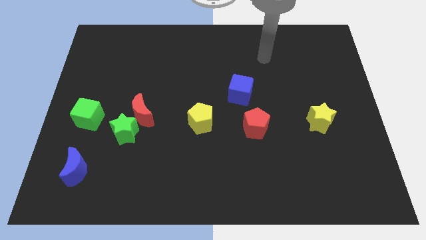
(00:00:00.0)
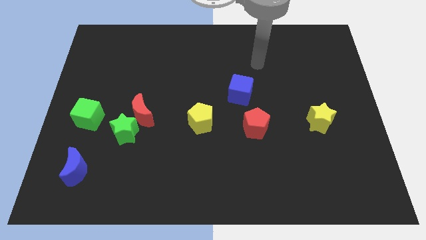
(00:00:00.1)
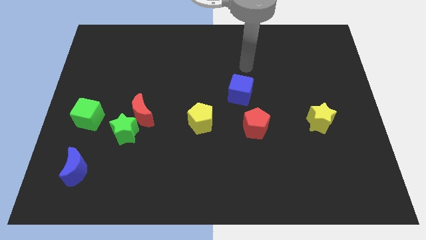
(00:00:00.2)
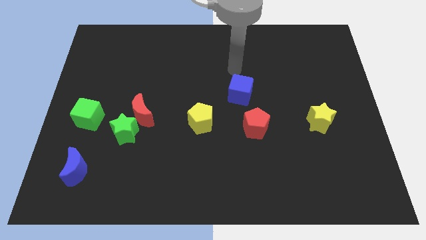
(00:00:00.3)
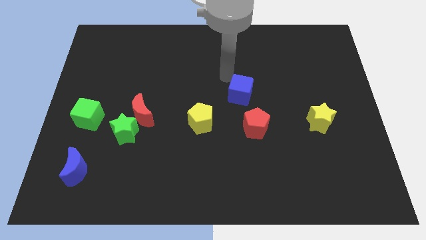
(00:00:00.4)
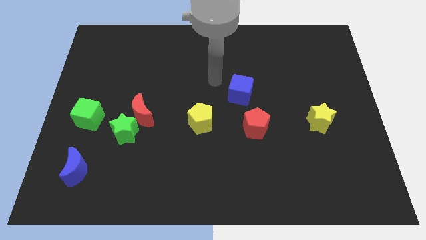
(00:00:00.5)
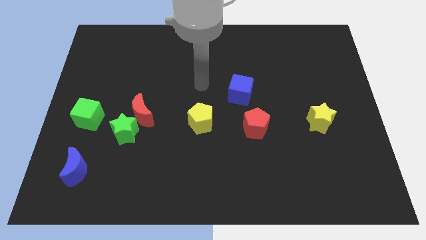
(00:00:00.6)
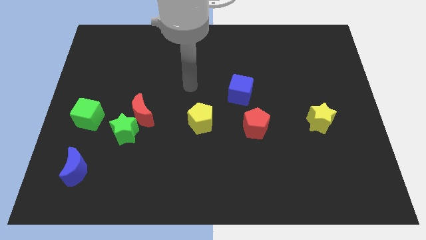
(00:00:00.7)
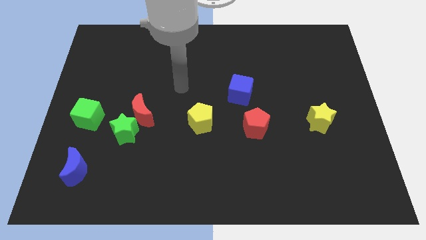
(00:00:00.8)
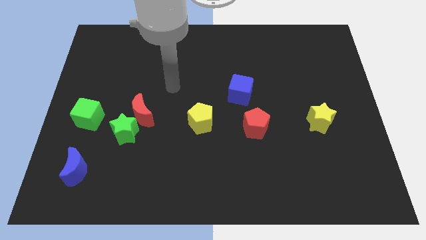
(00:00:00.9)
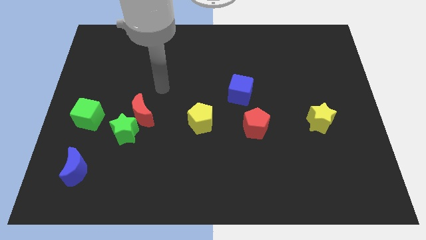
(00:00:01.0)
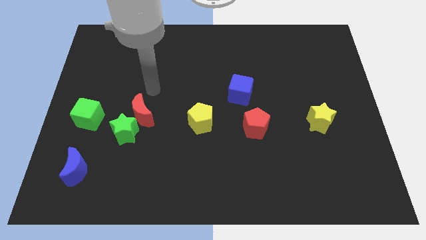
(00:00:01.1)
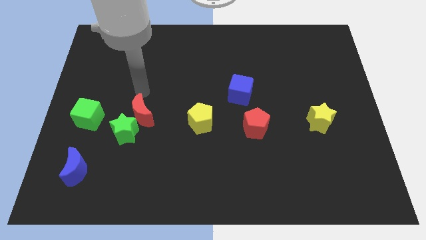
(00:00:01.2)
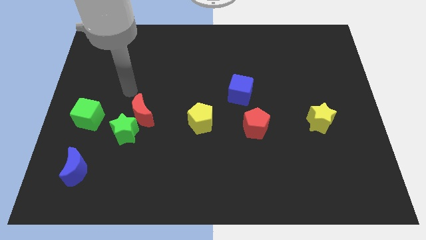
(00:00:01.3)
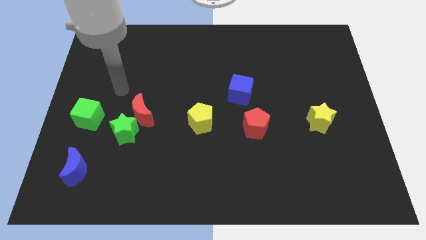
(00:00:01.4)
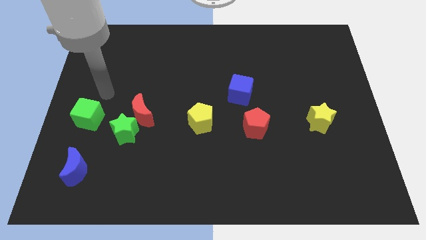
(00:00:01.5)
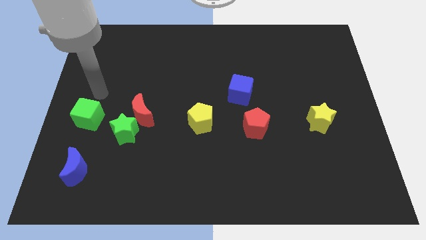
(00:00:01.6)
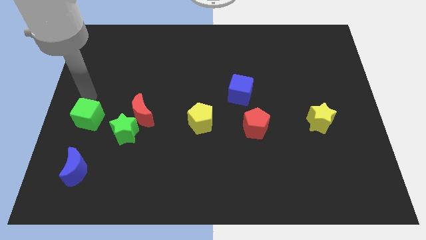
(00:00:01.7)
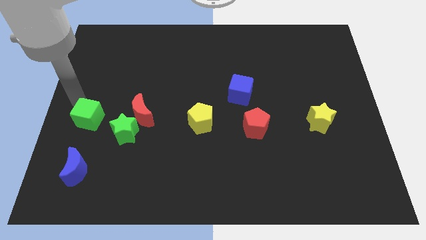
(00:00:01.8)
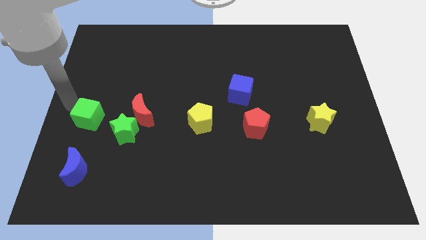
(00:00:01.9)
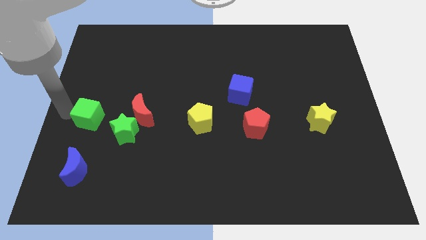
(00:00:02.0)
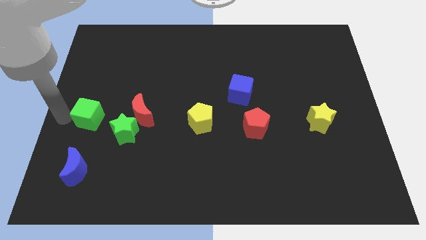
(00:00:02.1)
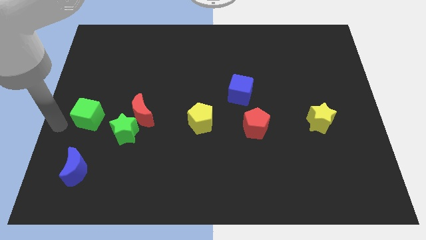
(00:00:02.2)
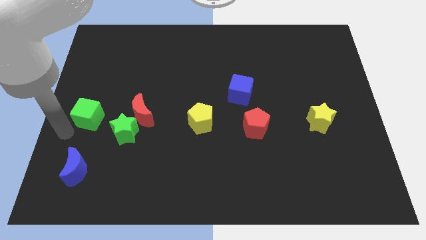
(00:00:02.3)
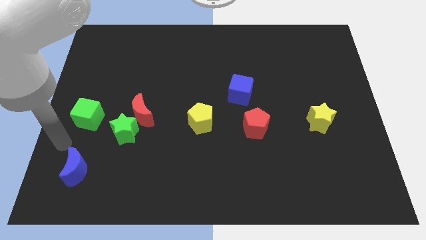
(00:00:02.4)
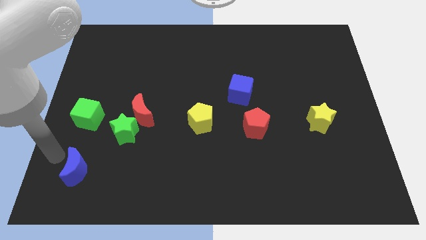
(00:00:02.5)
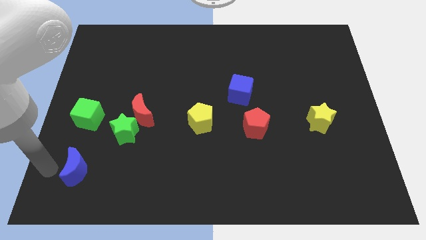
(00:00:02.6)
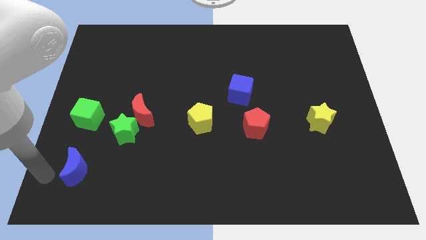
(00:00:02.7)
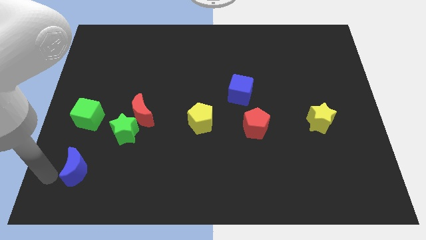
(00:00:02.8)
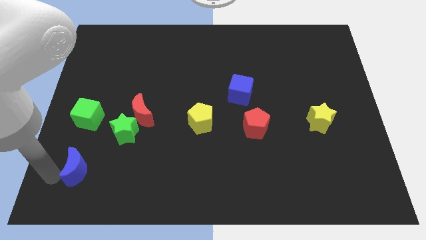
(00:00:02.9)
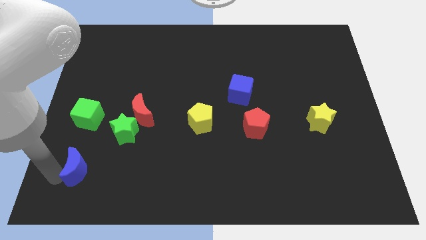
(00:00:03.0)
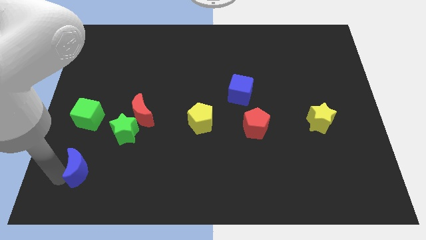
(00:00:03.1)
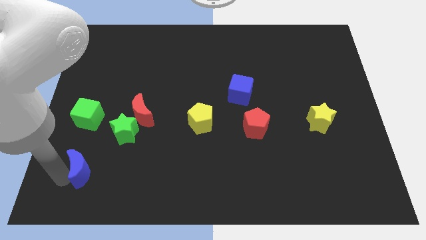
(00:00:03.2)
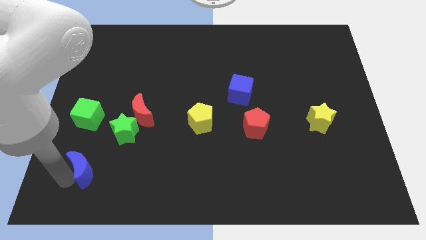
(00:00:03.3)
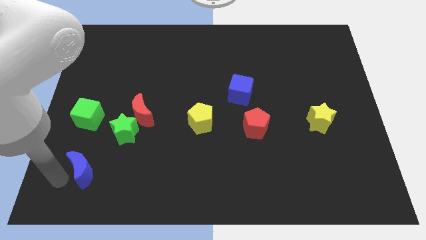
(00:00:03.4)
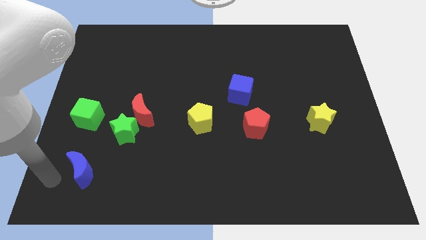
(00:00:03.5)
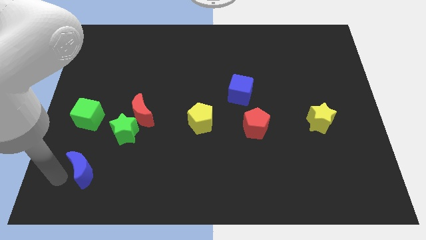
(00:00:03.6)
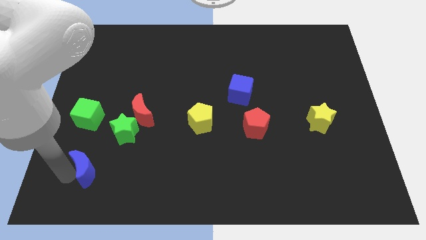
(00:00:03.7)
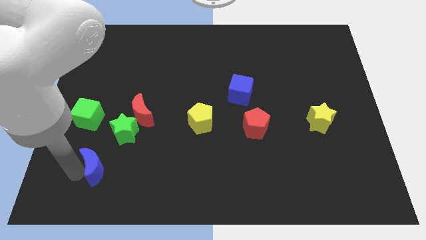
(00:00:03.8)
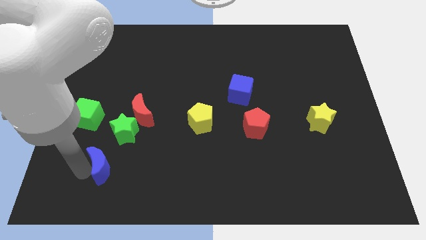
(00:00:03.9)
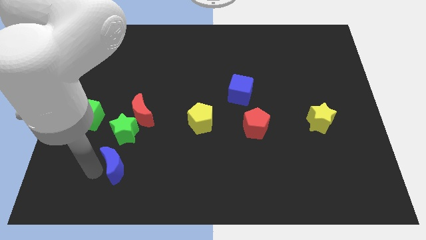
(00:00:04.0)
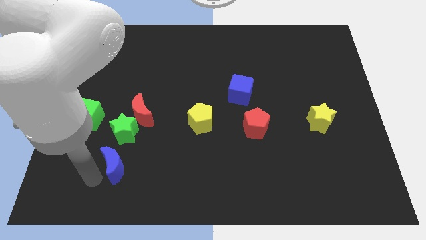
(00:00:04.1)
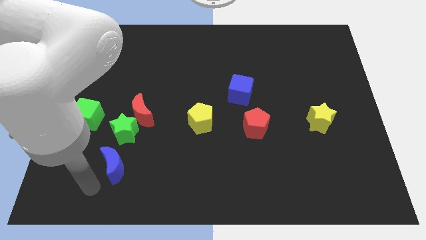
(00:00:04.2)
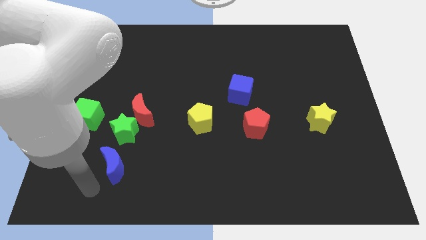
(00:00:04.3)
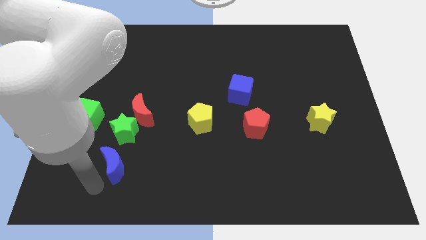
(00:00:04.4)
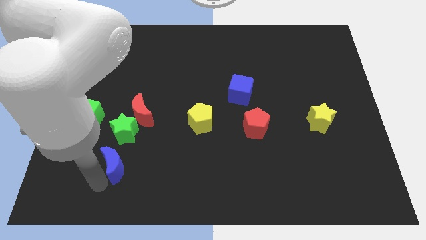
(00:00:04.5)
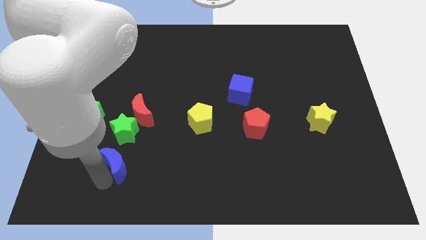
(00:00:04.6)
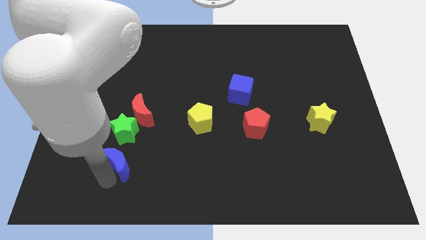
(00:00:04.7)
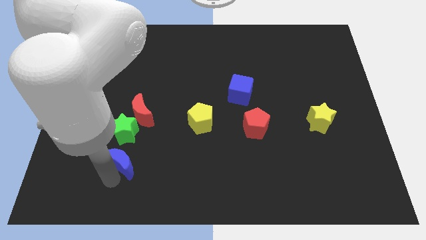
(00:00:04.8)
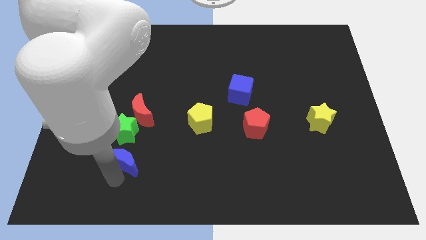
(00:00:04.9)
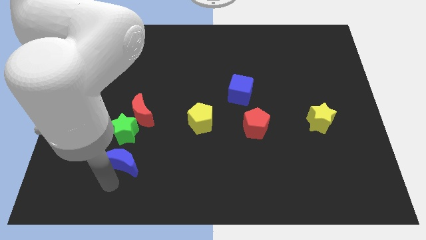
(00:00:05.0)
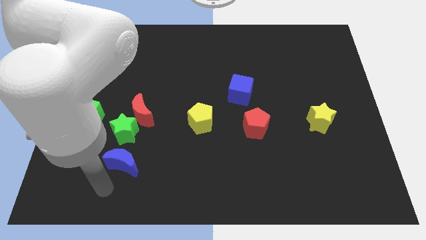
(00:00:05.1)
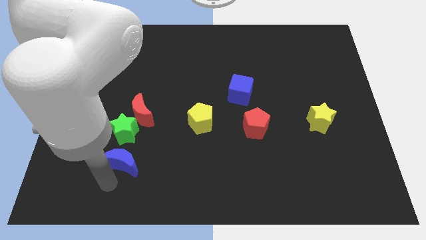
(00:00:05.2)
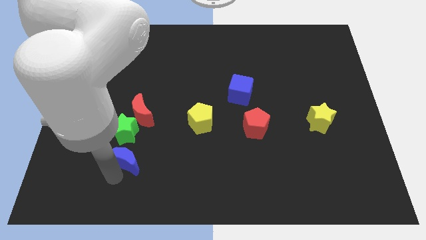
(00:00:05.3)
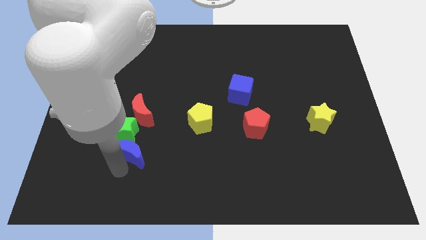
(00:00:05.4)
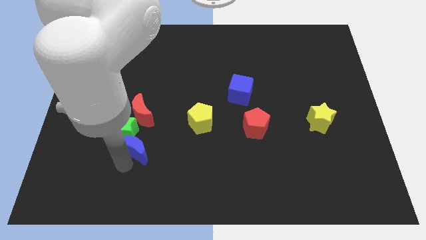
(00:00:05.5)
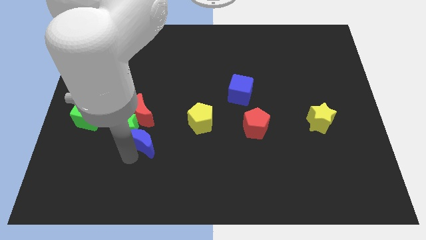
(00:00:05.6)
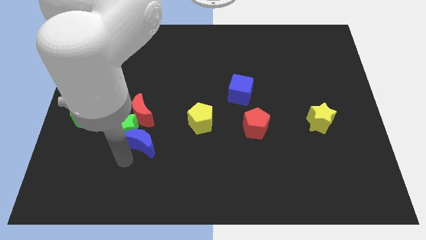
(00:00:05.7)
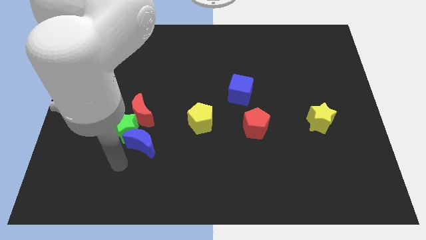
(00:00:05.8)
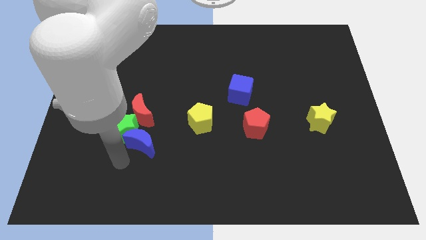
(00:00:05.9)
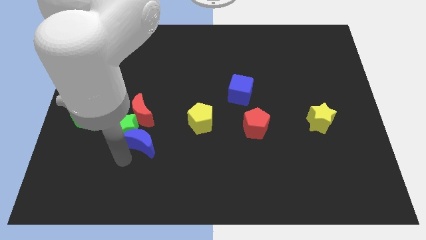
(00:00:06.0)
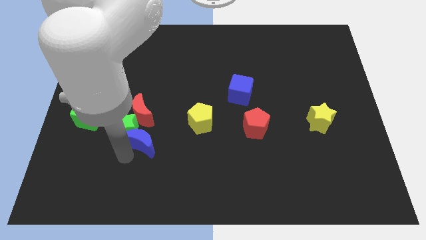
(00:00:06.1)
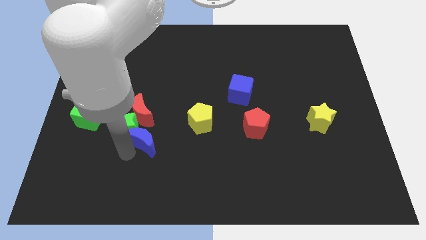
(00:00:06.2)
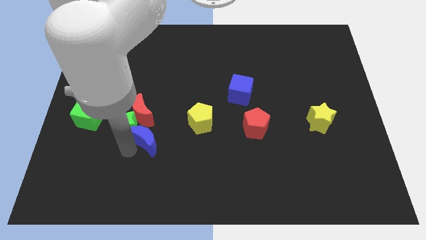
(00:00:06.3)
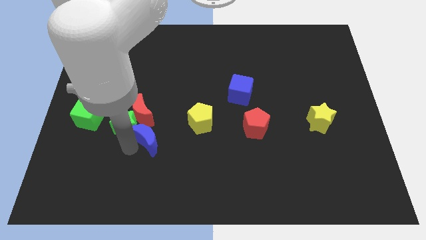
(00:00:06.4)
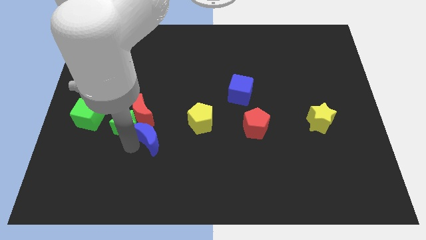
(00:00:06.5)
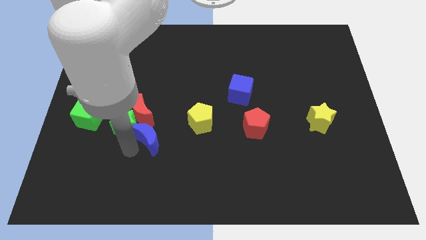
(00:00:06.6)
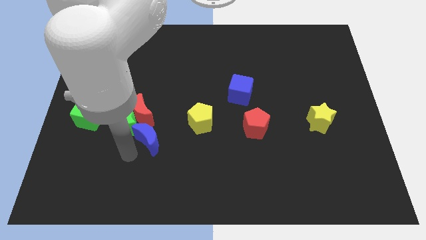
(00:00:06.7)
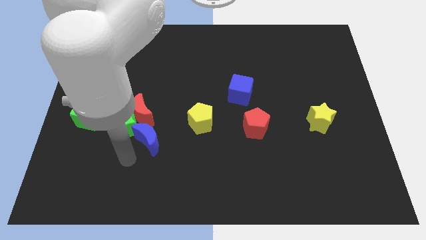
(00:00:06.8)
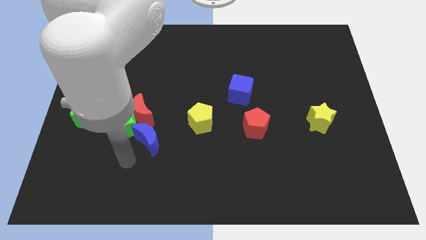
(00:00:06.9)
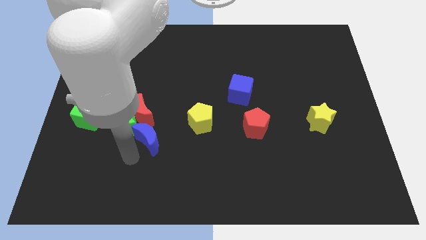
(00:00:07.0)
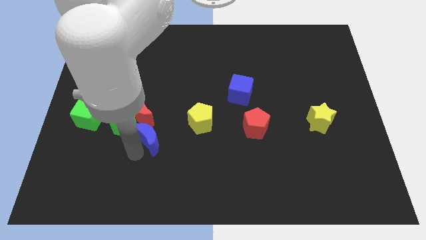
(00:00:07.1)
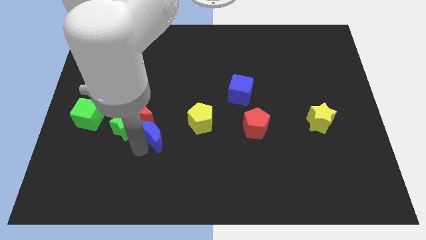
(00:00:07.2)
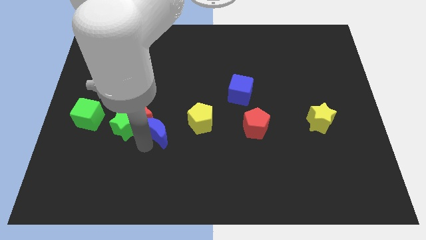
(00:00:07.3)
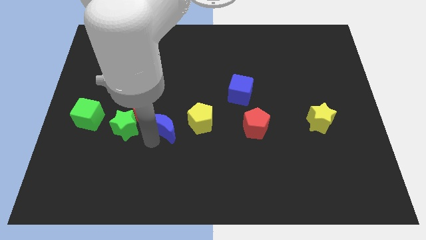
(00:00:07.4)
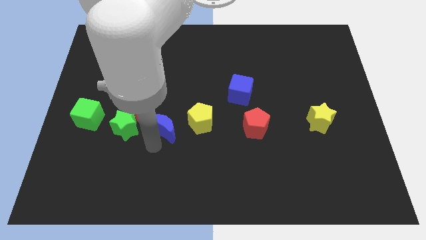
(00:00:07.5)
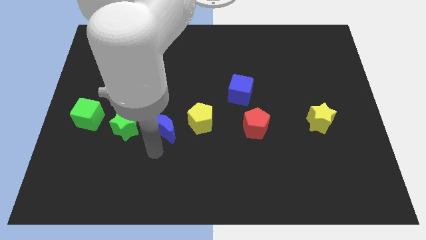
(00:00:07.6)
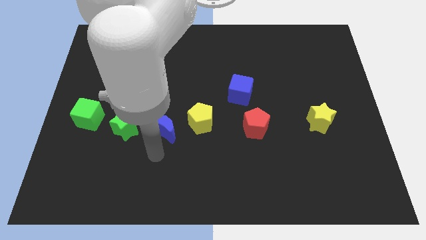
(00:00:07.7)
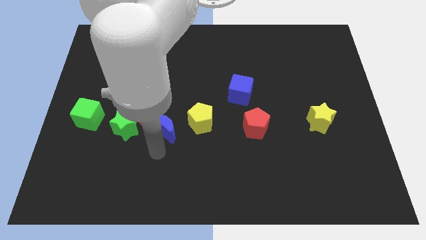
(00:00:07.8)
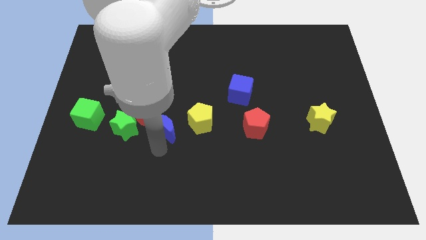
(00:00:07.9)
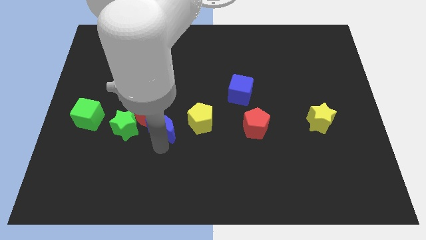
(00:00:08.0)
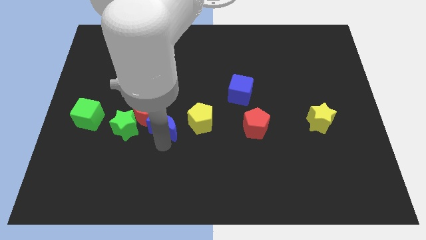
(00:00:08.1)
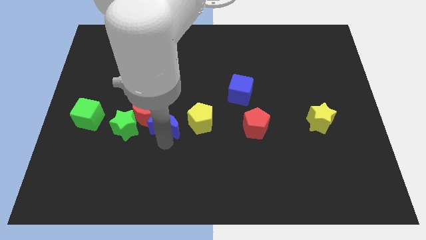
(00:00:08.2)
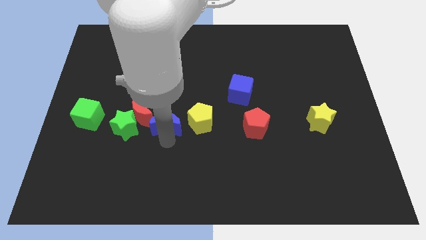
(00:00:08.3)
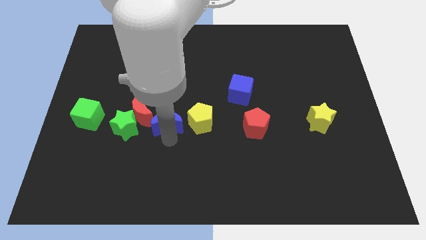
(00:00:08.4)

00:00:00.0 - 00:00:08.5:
push the blue moon upwards and then to the right
